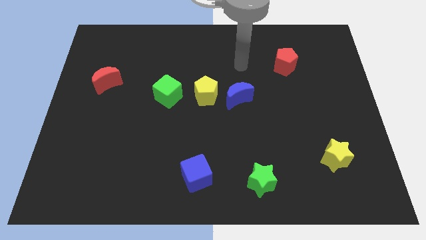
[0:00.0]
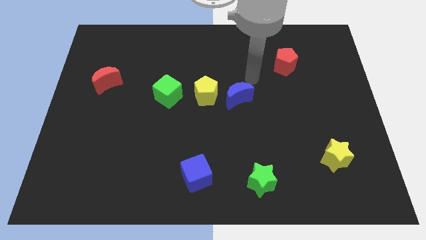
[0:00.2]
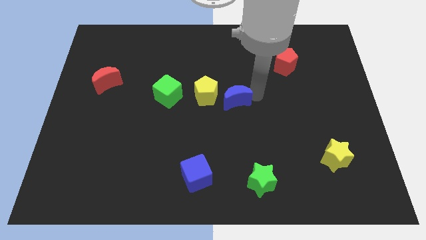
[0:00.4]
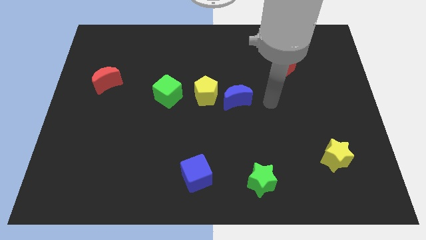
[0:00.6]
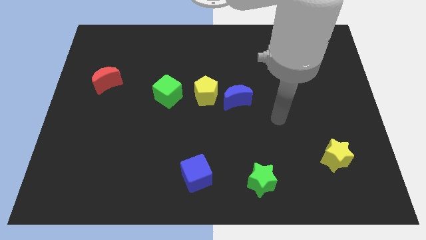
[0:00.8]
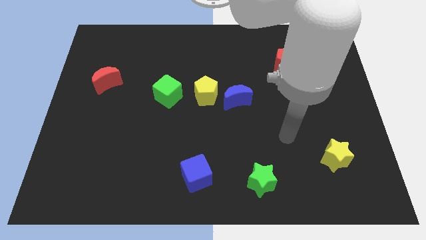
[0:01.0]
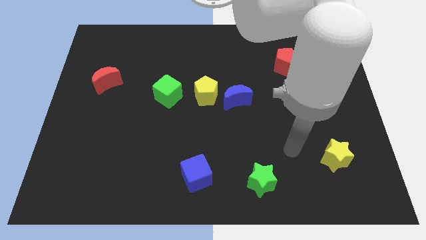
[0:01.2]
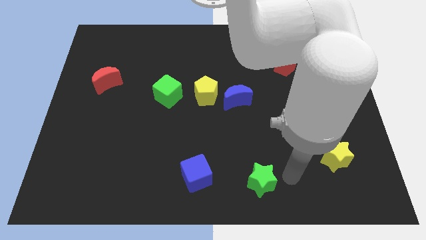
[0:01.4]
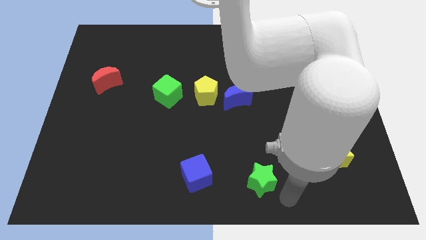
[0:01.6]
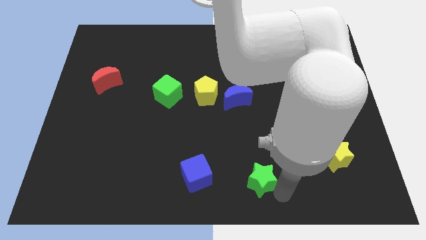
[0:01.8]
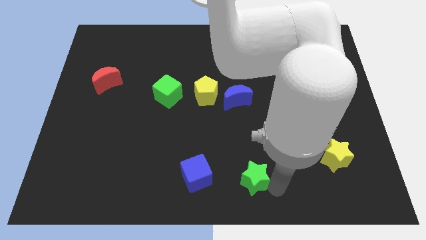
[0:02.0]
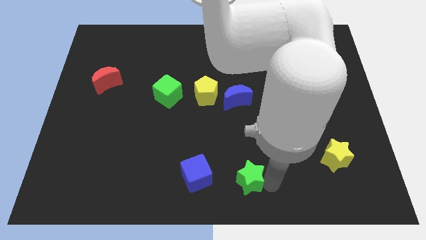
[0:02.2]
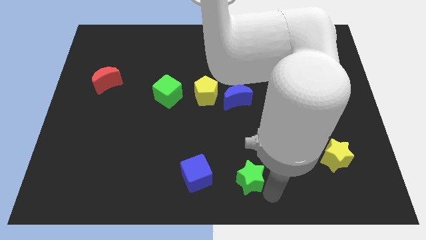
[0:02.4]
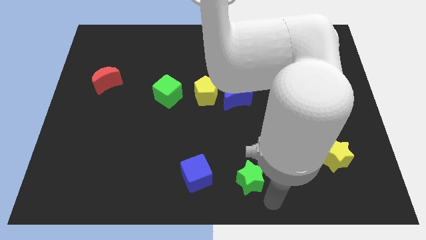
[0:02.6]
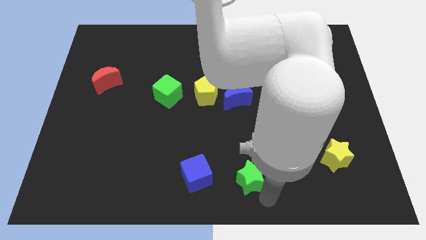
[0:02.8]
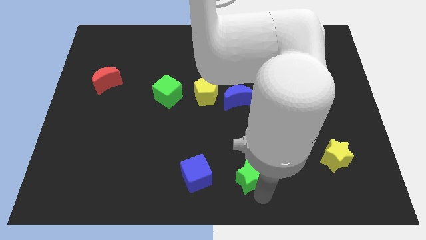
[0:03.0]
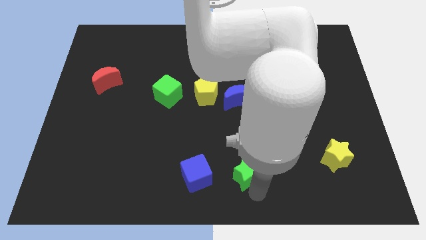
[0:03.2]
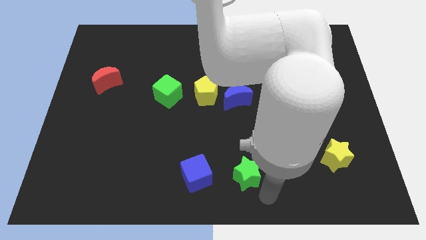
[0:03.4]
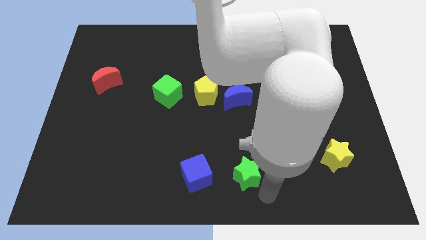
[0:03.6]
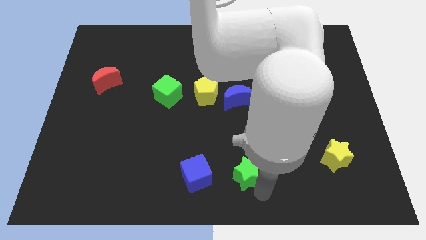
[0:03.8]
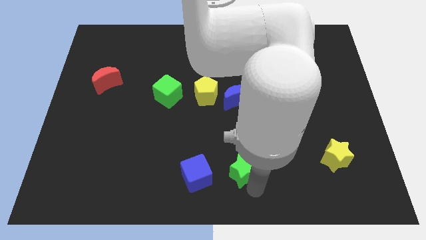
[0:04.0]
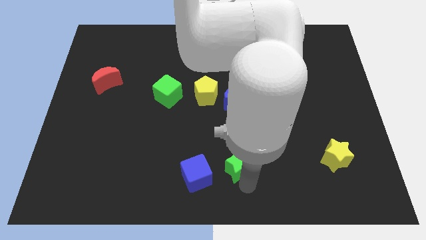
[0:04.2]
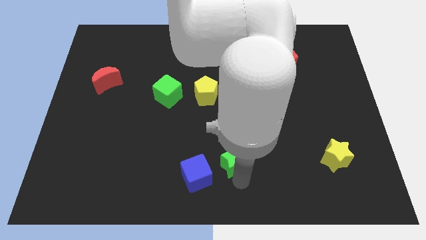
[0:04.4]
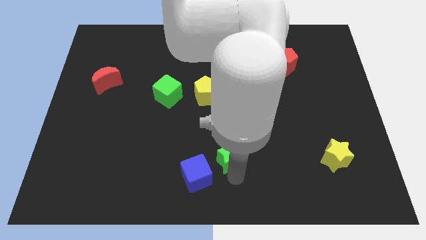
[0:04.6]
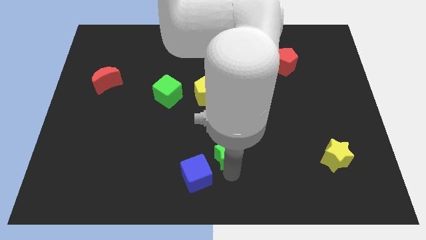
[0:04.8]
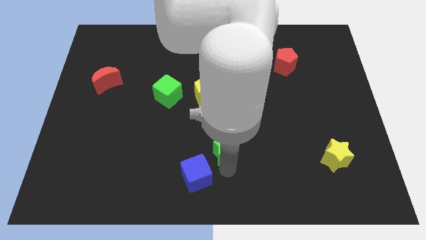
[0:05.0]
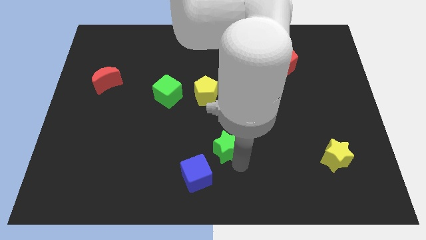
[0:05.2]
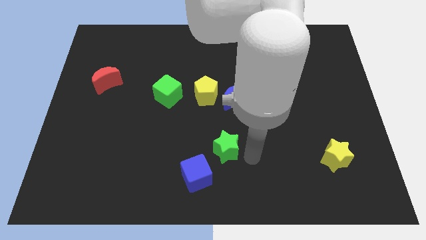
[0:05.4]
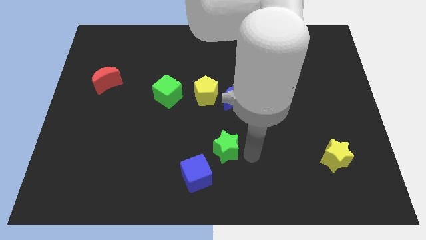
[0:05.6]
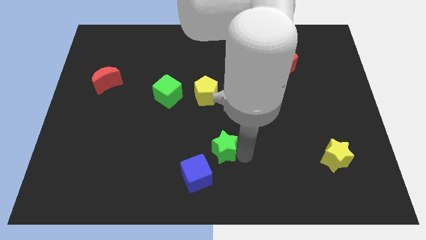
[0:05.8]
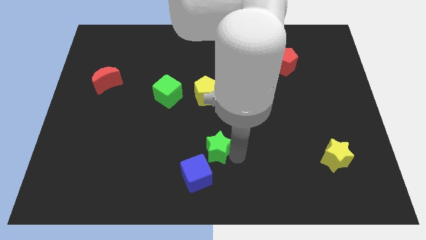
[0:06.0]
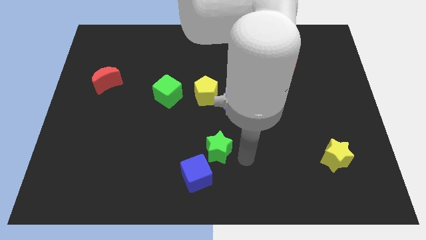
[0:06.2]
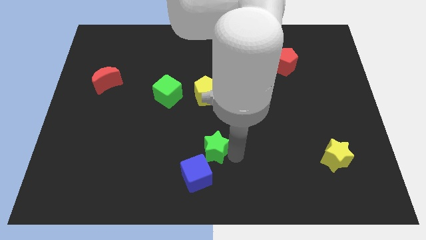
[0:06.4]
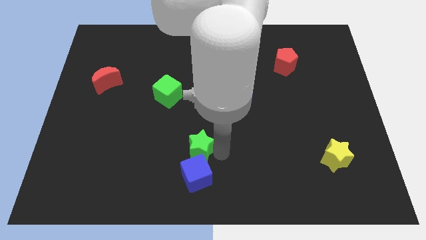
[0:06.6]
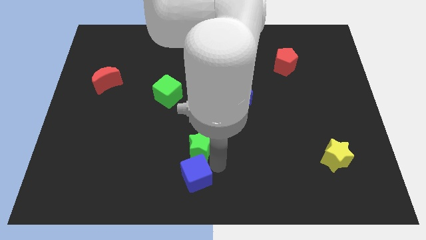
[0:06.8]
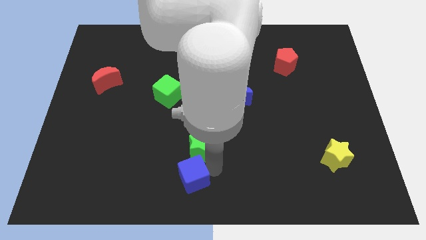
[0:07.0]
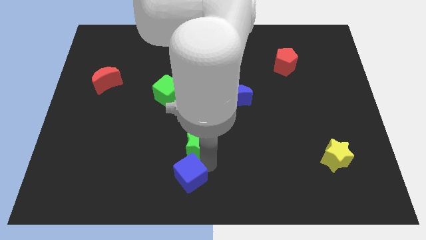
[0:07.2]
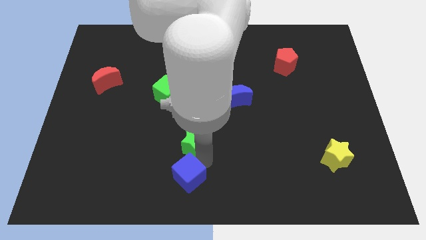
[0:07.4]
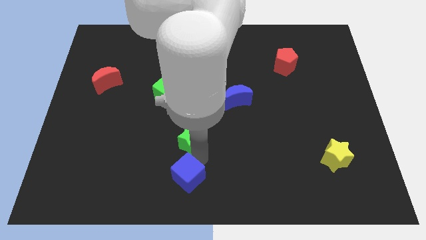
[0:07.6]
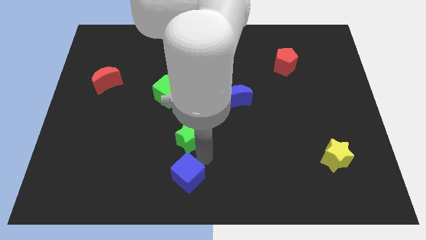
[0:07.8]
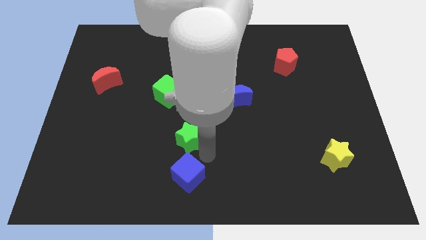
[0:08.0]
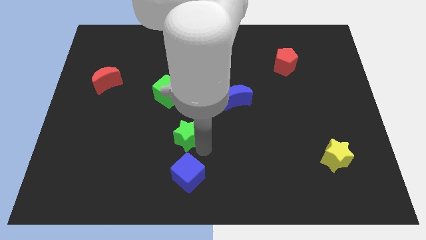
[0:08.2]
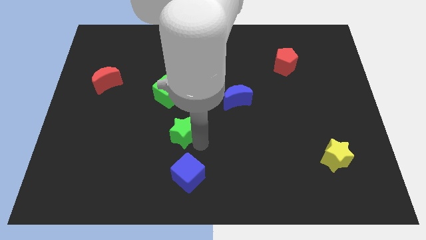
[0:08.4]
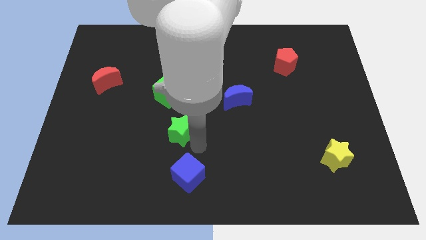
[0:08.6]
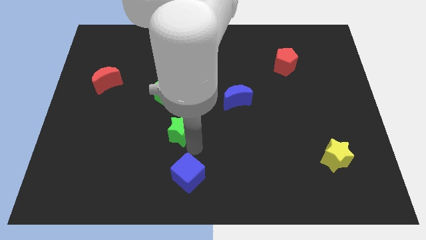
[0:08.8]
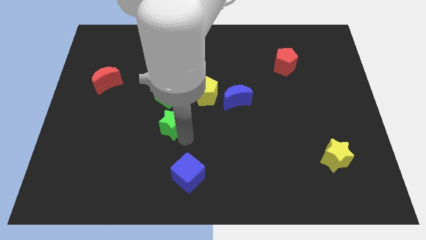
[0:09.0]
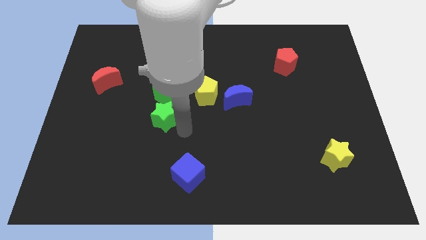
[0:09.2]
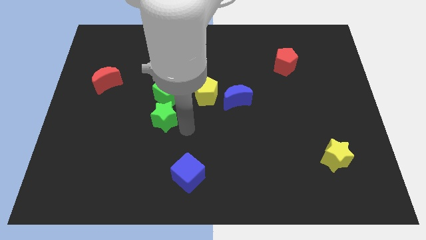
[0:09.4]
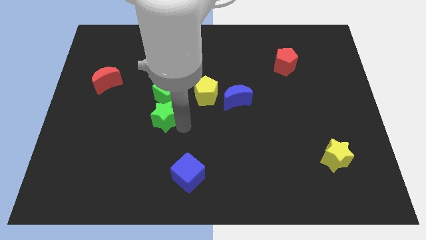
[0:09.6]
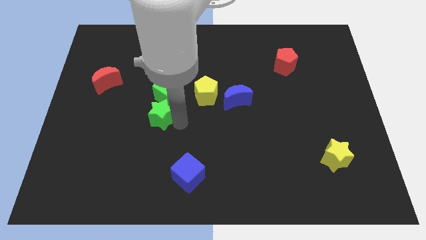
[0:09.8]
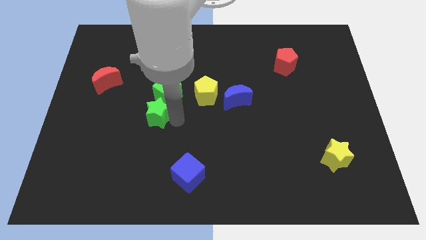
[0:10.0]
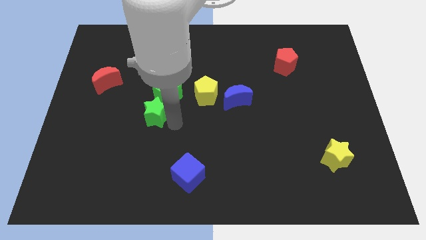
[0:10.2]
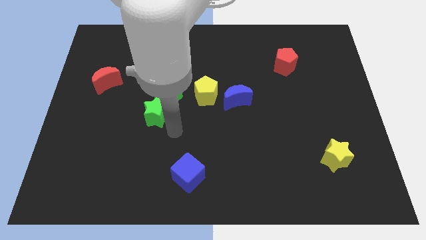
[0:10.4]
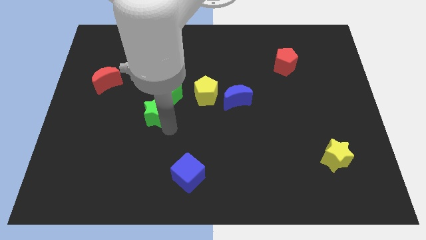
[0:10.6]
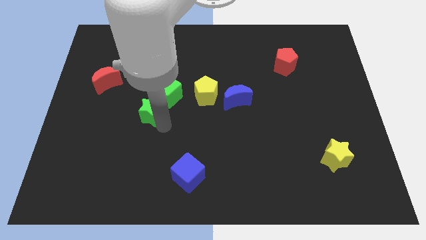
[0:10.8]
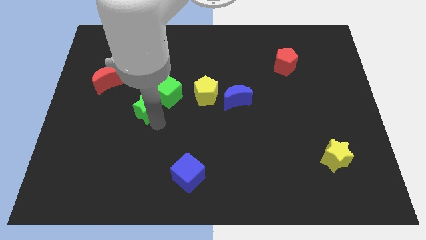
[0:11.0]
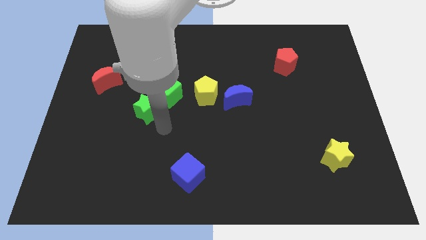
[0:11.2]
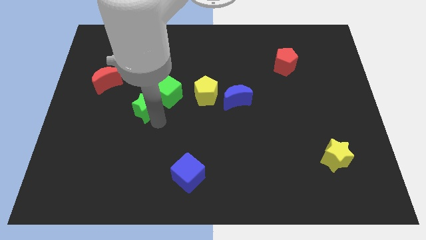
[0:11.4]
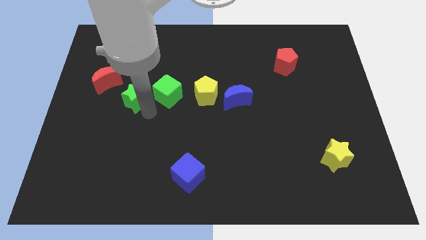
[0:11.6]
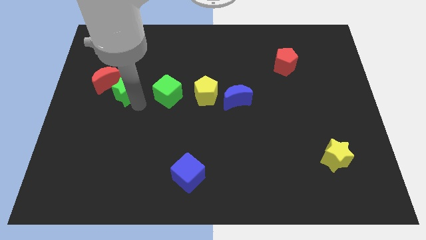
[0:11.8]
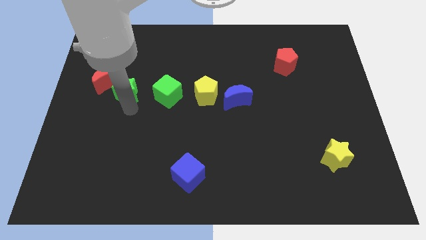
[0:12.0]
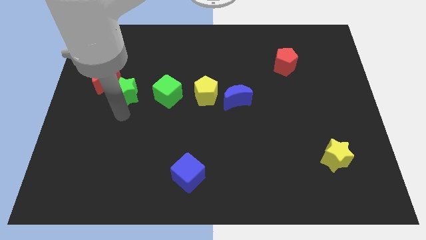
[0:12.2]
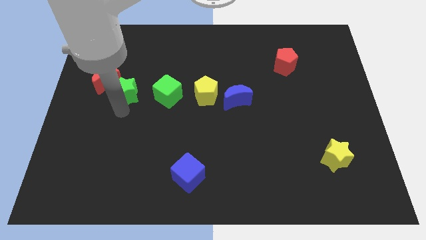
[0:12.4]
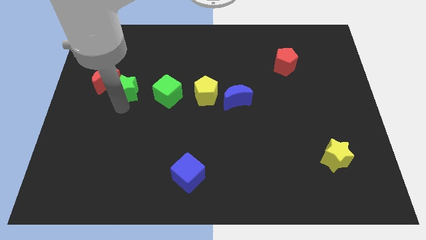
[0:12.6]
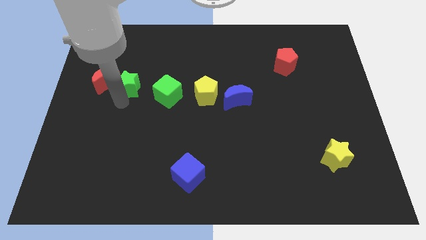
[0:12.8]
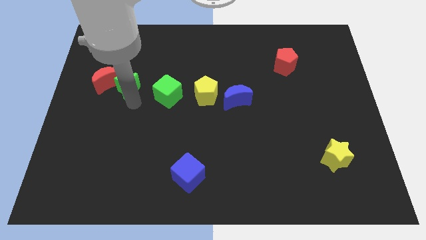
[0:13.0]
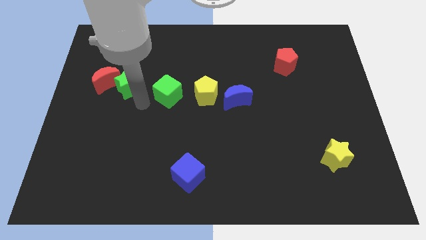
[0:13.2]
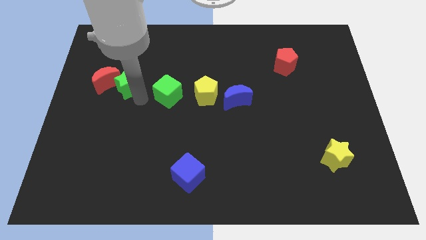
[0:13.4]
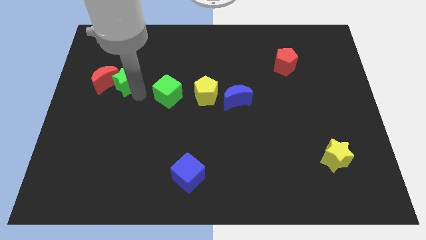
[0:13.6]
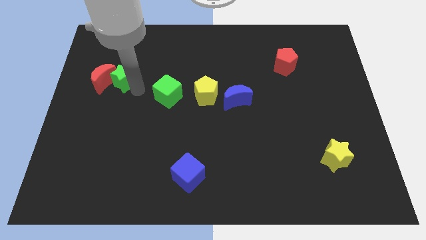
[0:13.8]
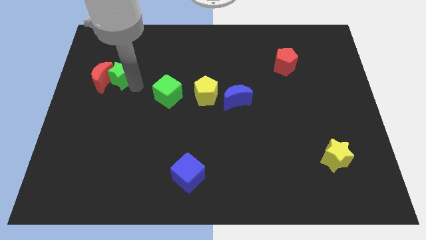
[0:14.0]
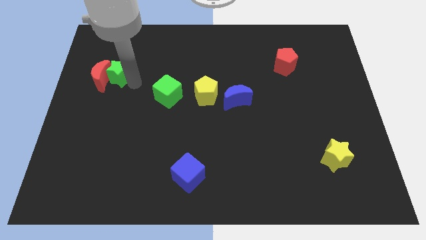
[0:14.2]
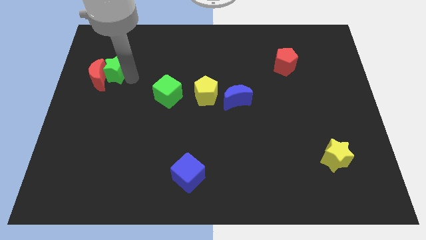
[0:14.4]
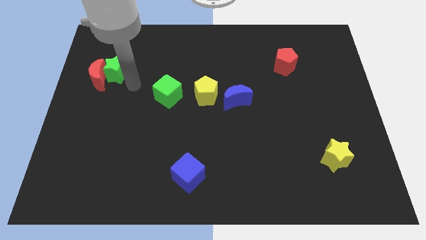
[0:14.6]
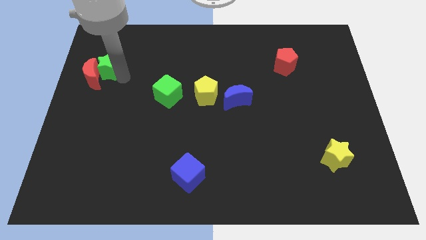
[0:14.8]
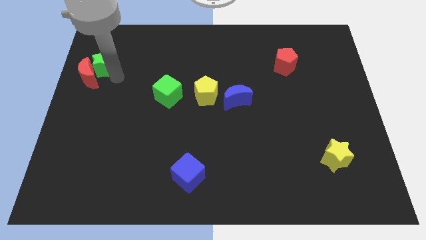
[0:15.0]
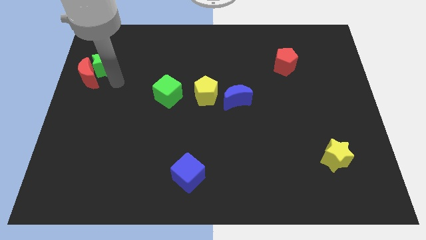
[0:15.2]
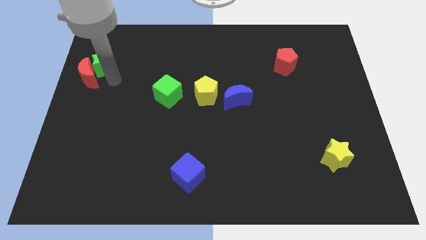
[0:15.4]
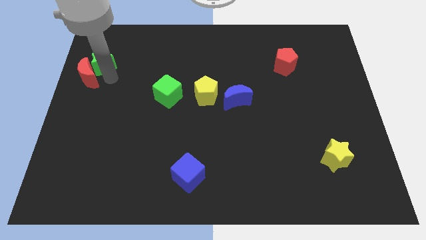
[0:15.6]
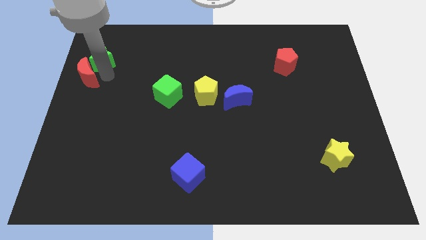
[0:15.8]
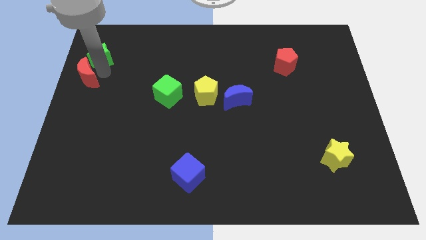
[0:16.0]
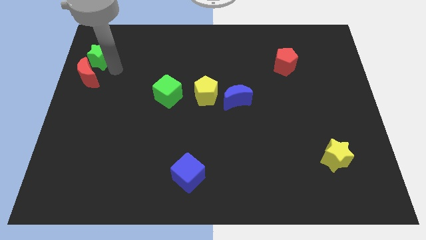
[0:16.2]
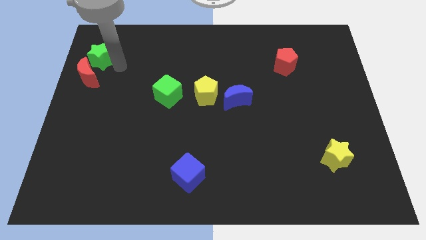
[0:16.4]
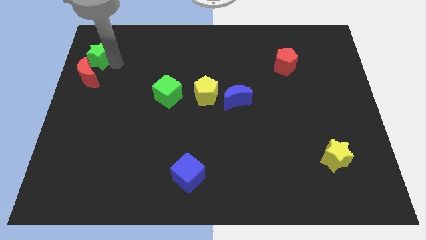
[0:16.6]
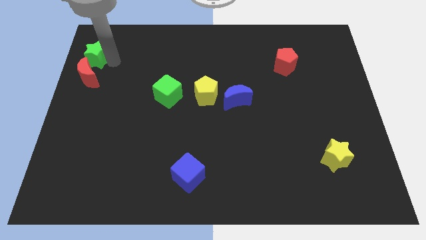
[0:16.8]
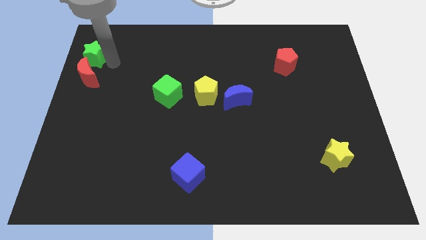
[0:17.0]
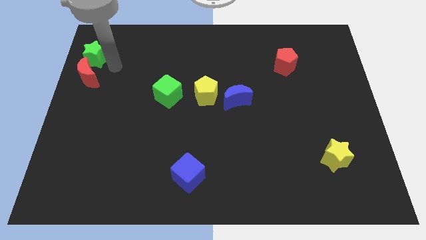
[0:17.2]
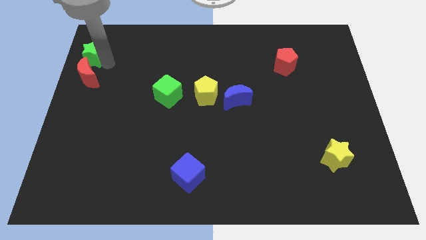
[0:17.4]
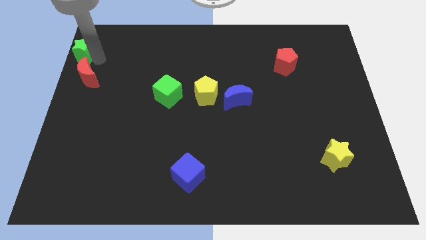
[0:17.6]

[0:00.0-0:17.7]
move the green star to the top left of the board
